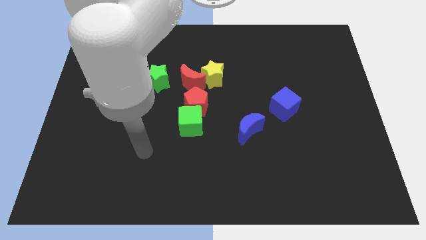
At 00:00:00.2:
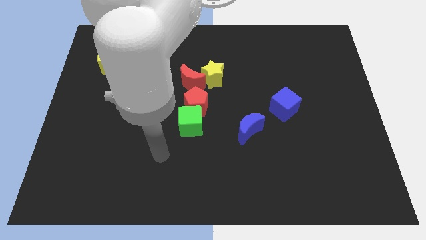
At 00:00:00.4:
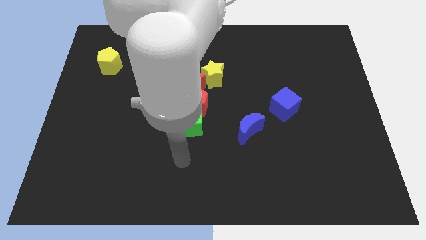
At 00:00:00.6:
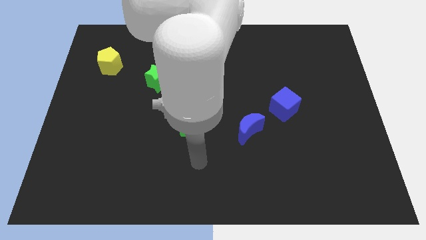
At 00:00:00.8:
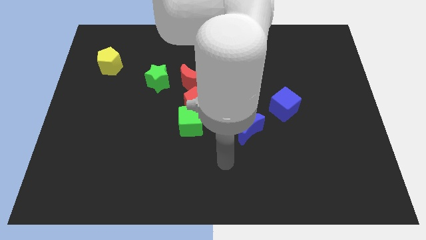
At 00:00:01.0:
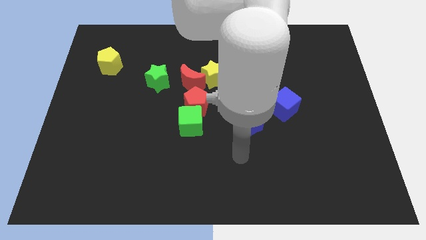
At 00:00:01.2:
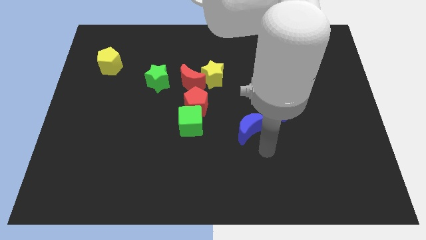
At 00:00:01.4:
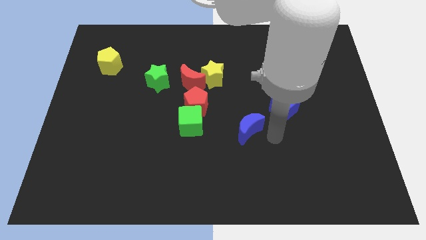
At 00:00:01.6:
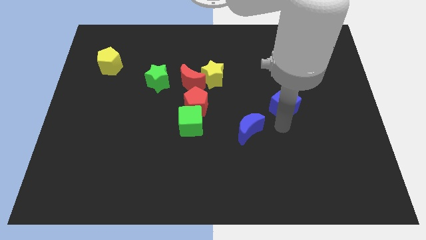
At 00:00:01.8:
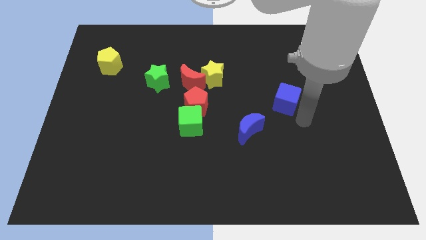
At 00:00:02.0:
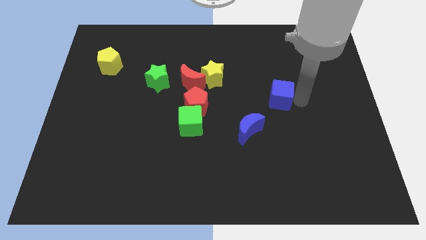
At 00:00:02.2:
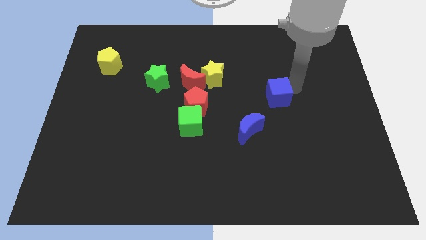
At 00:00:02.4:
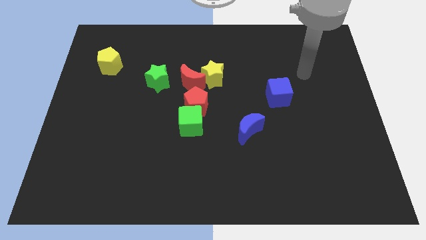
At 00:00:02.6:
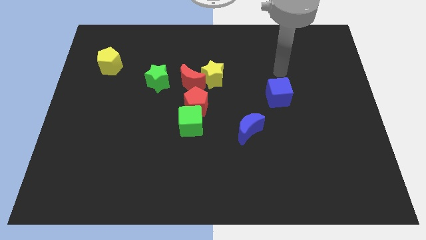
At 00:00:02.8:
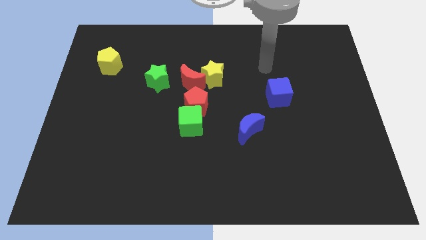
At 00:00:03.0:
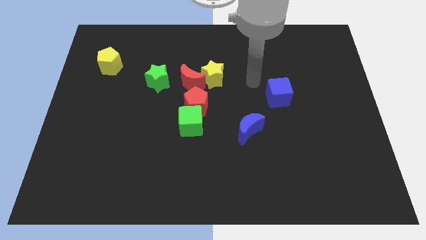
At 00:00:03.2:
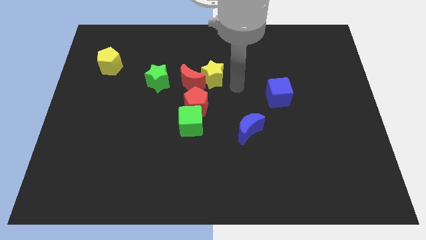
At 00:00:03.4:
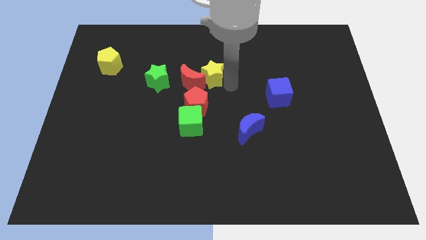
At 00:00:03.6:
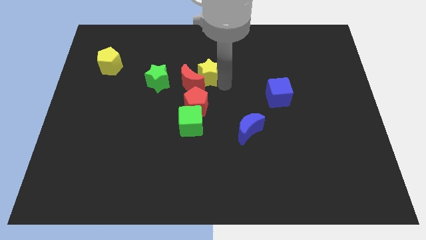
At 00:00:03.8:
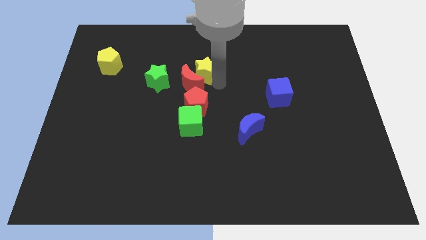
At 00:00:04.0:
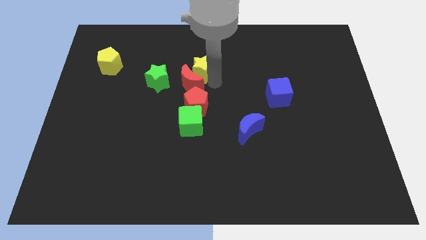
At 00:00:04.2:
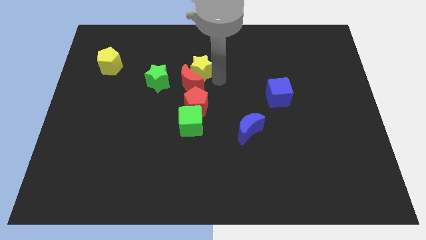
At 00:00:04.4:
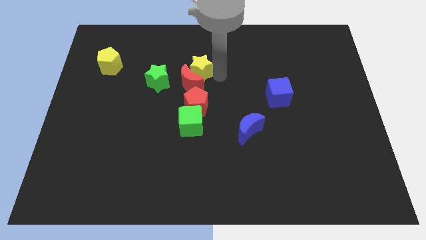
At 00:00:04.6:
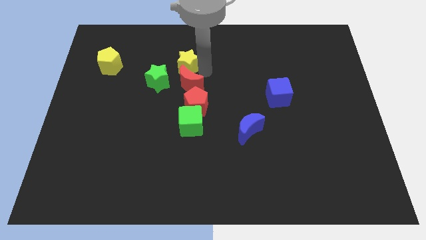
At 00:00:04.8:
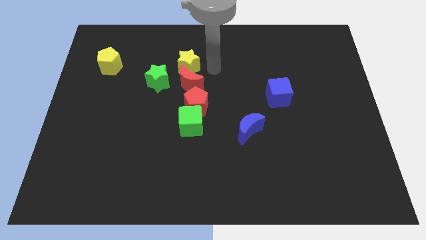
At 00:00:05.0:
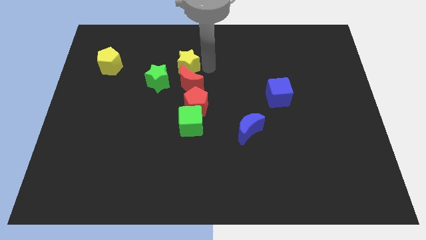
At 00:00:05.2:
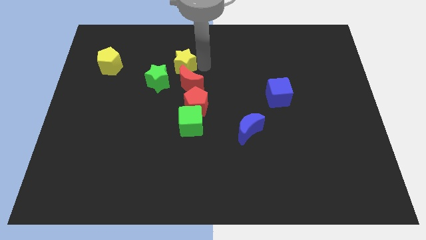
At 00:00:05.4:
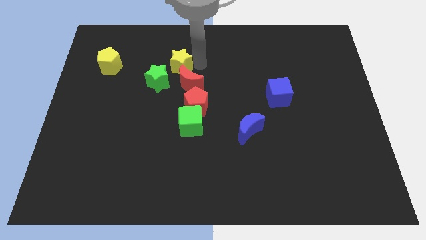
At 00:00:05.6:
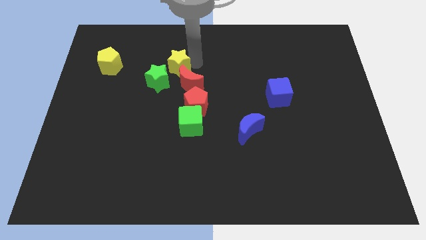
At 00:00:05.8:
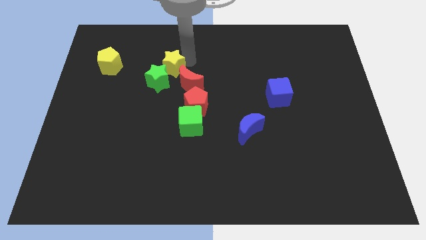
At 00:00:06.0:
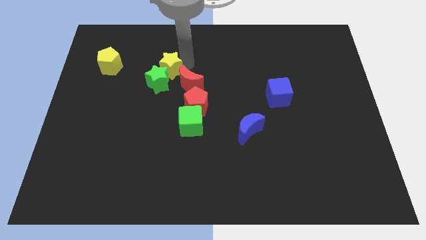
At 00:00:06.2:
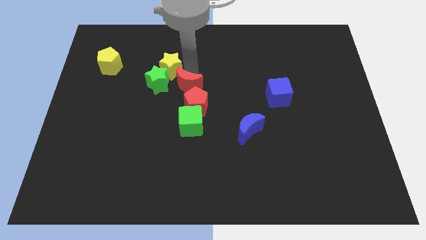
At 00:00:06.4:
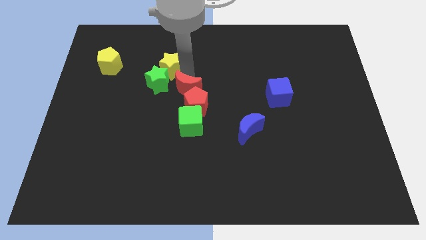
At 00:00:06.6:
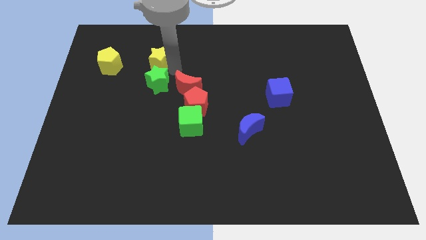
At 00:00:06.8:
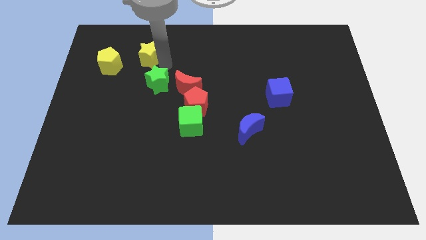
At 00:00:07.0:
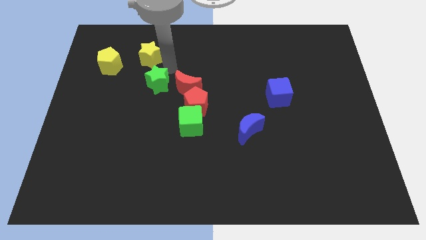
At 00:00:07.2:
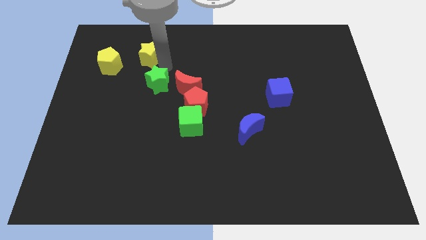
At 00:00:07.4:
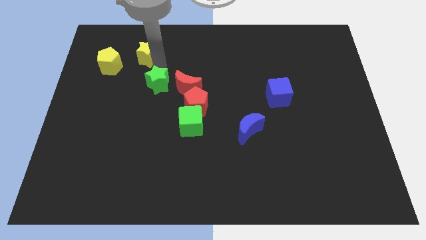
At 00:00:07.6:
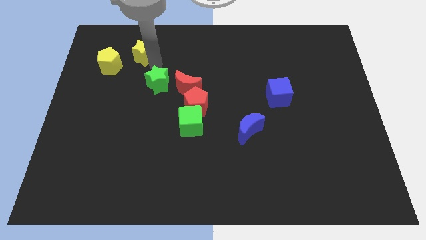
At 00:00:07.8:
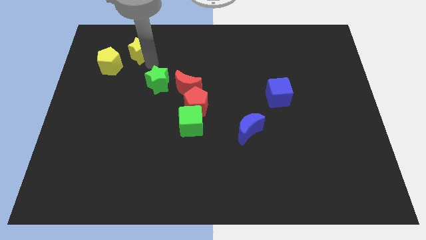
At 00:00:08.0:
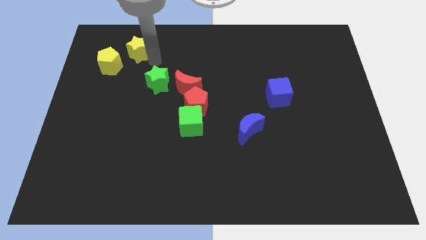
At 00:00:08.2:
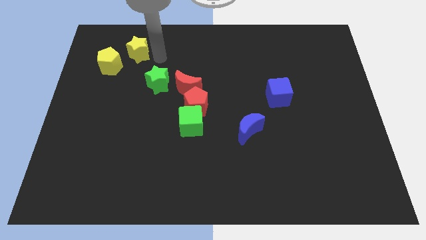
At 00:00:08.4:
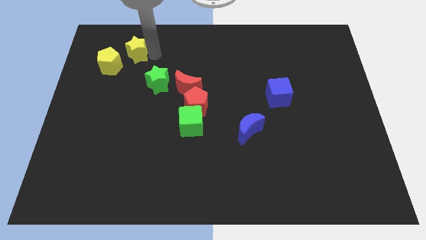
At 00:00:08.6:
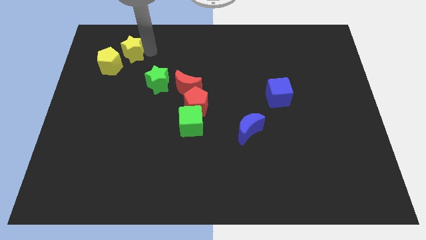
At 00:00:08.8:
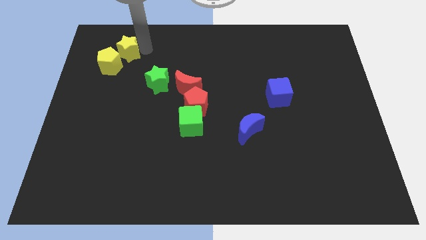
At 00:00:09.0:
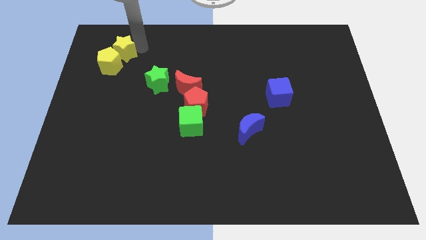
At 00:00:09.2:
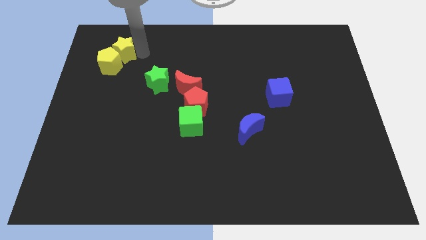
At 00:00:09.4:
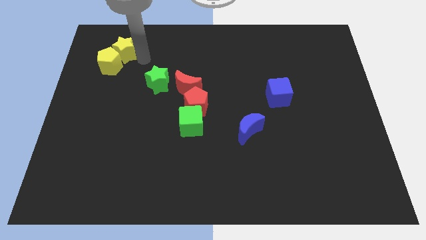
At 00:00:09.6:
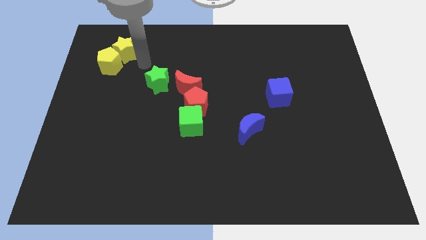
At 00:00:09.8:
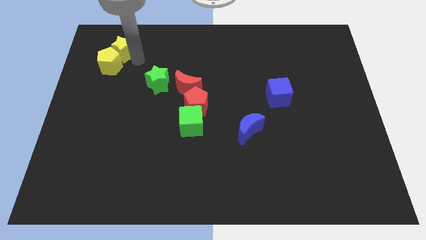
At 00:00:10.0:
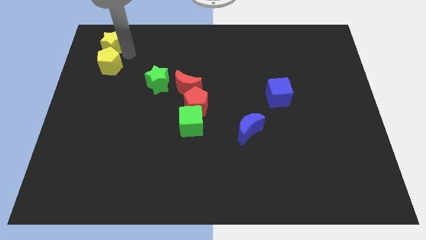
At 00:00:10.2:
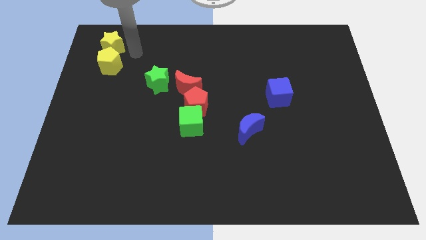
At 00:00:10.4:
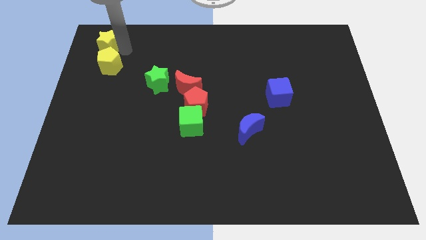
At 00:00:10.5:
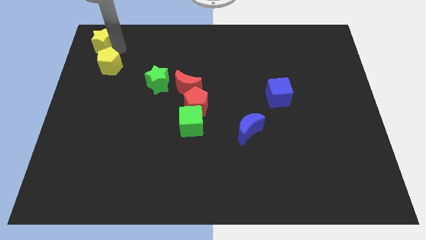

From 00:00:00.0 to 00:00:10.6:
put the yellow star to the top left of the board

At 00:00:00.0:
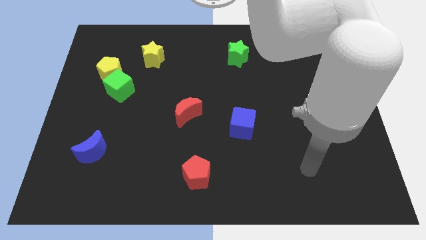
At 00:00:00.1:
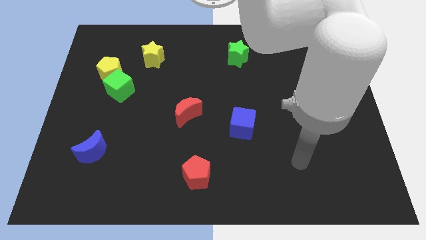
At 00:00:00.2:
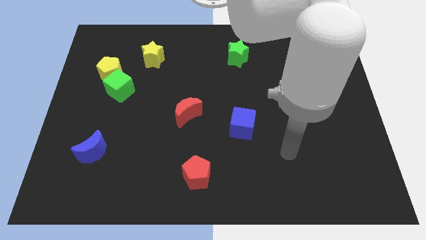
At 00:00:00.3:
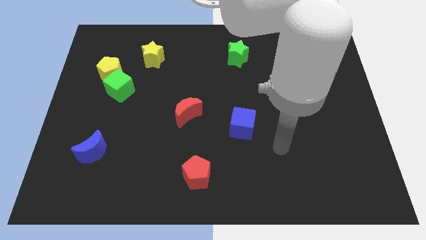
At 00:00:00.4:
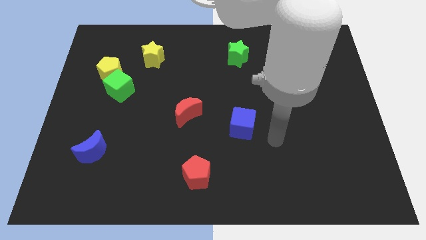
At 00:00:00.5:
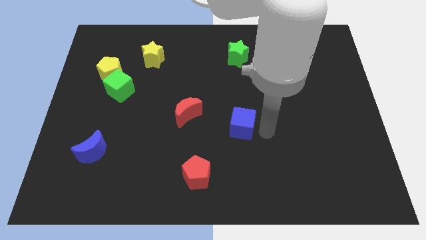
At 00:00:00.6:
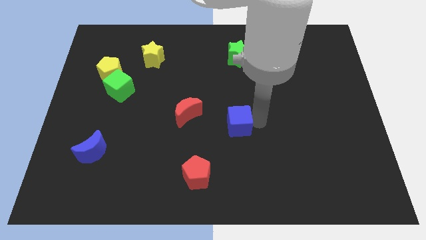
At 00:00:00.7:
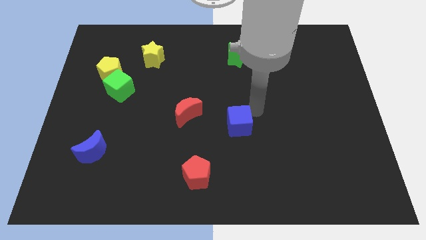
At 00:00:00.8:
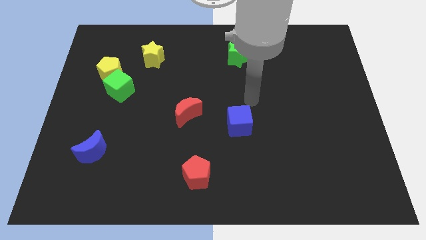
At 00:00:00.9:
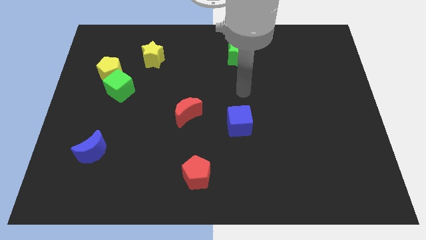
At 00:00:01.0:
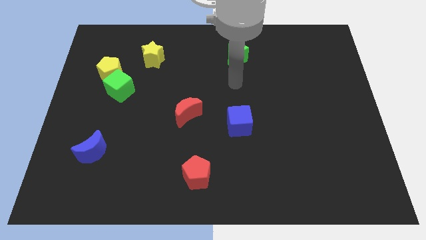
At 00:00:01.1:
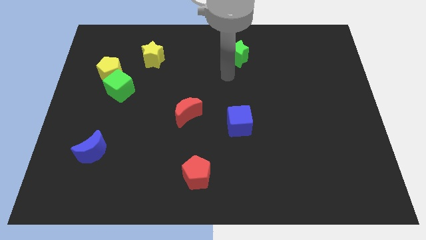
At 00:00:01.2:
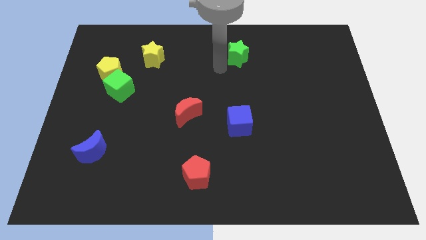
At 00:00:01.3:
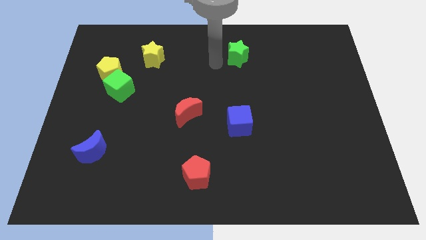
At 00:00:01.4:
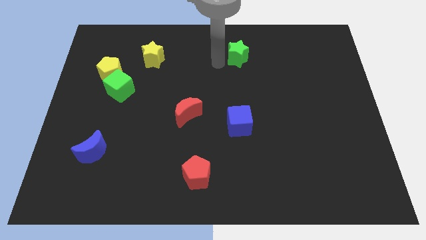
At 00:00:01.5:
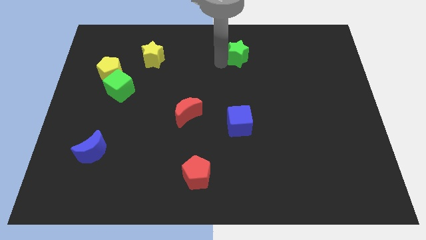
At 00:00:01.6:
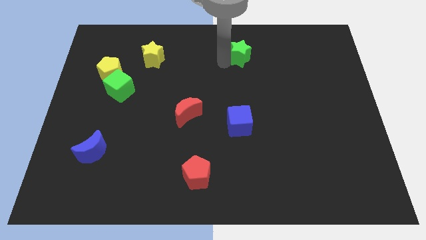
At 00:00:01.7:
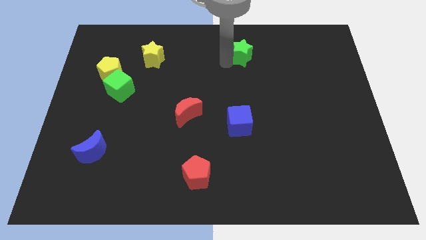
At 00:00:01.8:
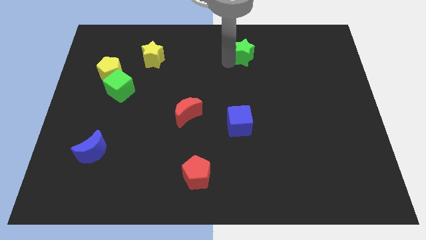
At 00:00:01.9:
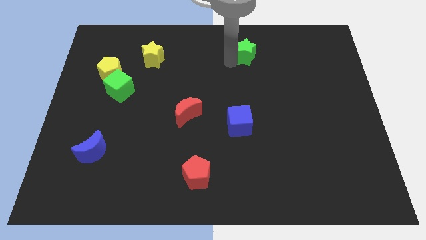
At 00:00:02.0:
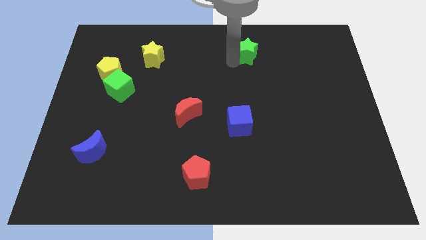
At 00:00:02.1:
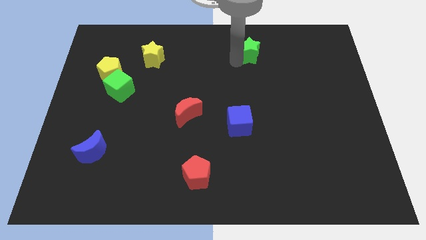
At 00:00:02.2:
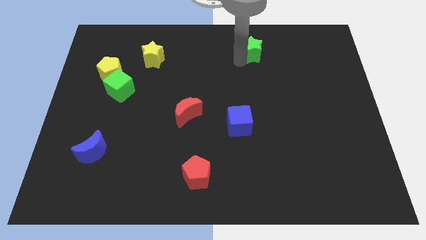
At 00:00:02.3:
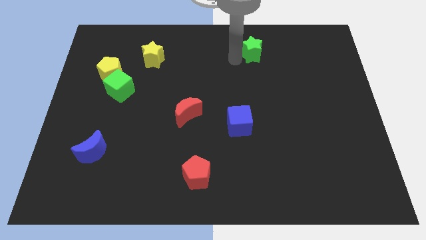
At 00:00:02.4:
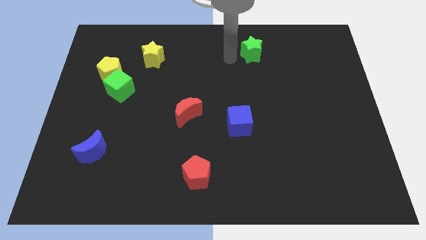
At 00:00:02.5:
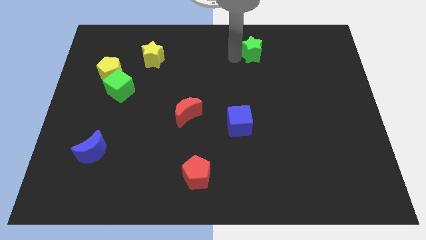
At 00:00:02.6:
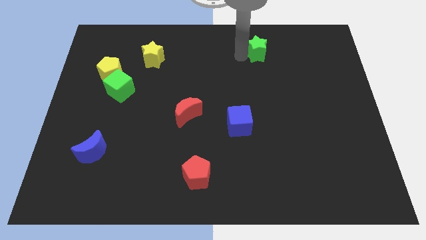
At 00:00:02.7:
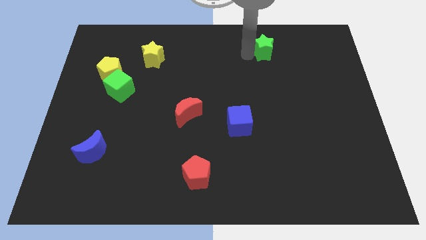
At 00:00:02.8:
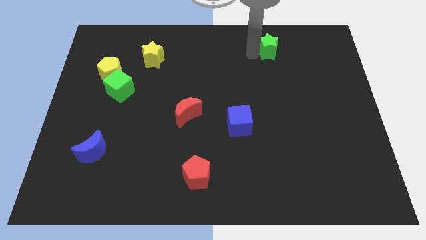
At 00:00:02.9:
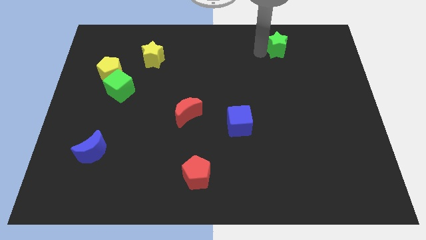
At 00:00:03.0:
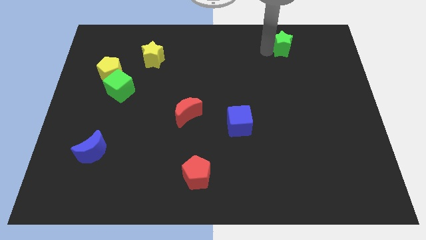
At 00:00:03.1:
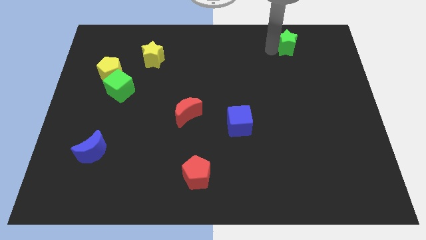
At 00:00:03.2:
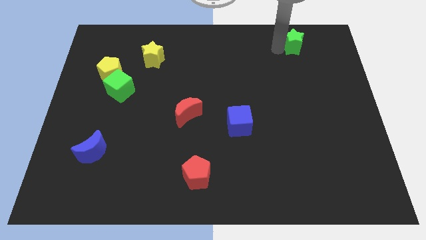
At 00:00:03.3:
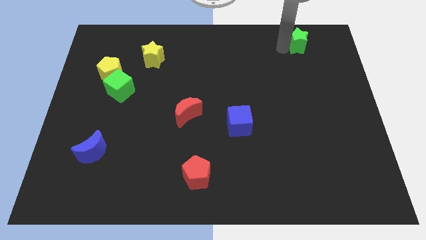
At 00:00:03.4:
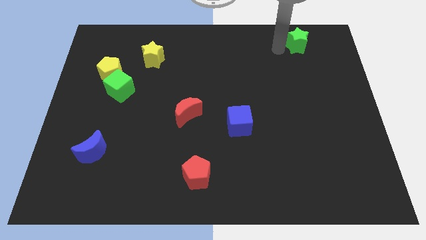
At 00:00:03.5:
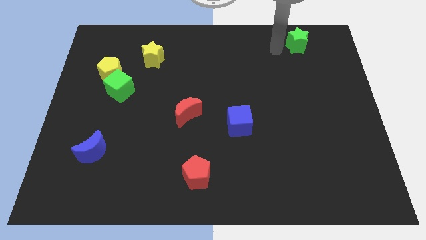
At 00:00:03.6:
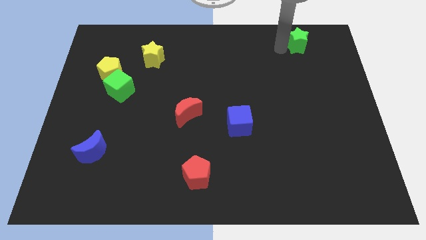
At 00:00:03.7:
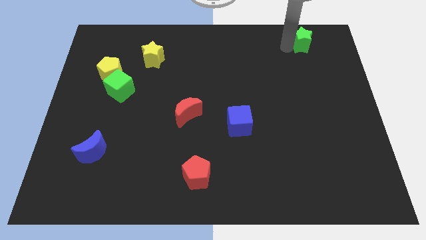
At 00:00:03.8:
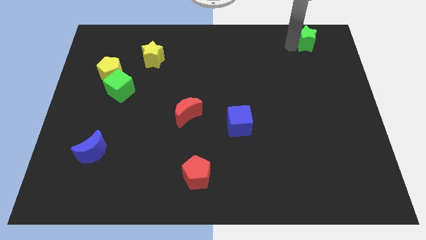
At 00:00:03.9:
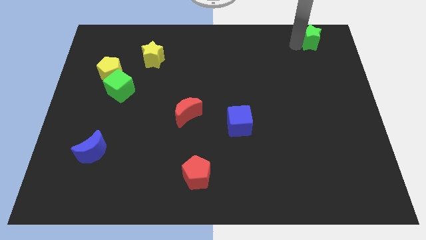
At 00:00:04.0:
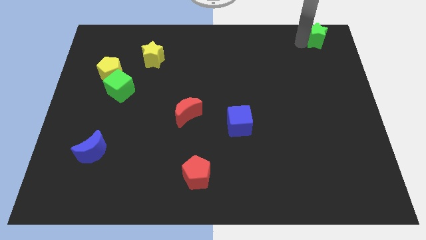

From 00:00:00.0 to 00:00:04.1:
move the green star to the top right corner
